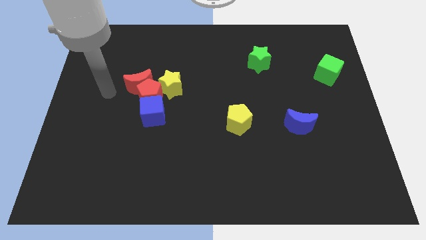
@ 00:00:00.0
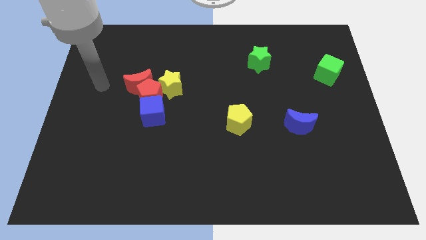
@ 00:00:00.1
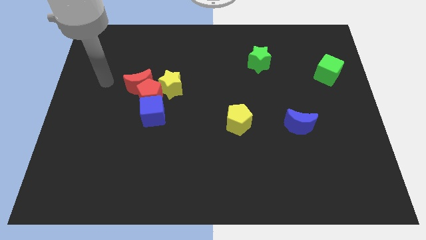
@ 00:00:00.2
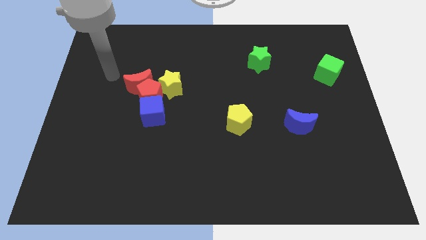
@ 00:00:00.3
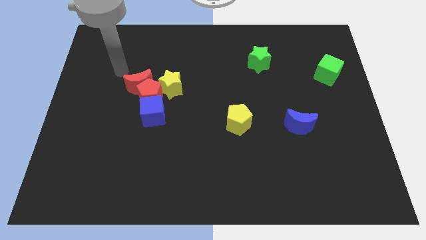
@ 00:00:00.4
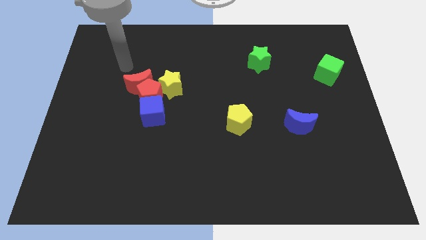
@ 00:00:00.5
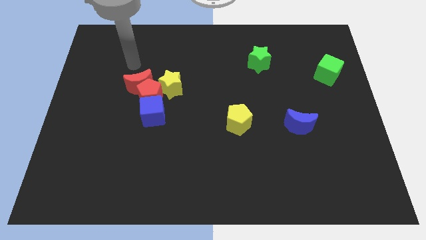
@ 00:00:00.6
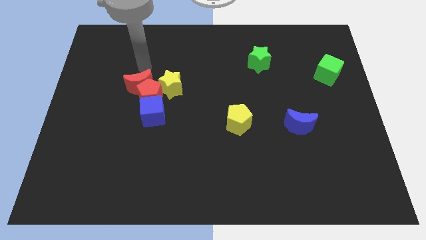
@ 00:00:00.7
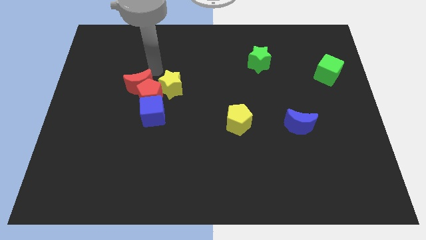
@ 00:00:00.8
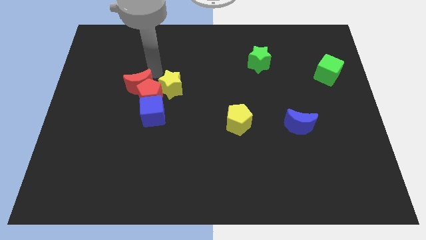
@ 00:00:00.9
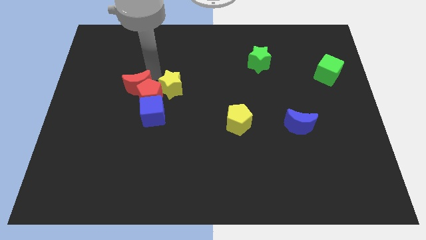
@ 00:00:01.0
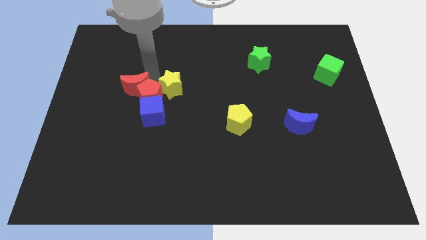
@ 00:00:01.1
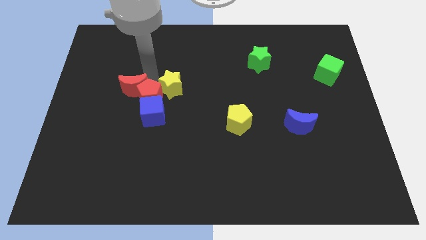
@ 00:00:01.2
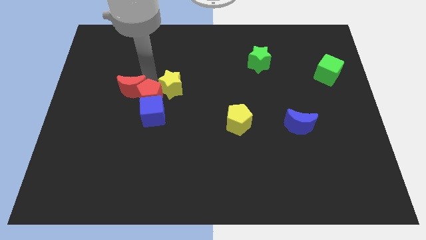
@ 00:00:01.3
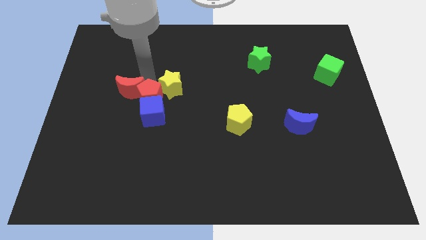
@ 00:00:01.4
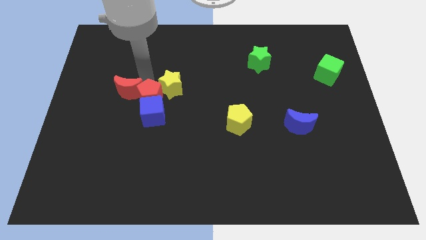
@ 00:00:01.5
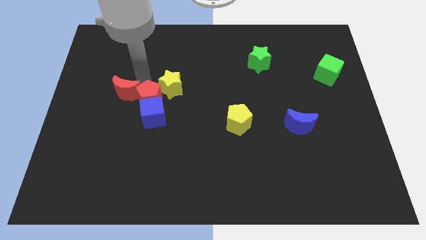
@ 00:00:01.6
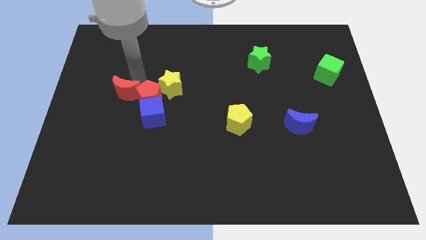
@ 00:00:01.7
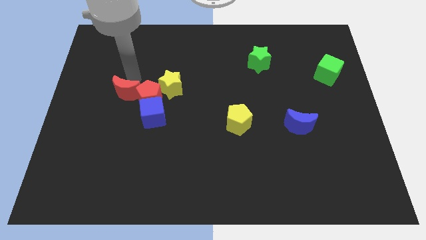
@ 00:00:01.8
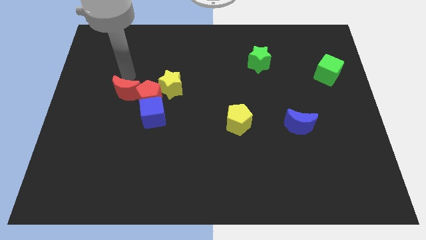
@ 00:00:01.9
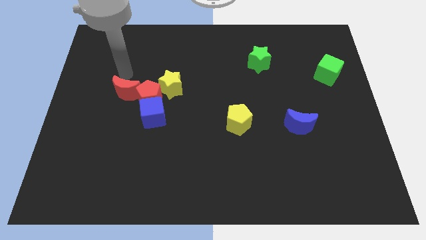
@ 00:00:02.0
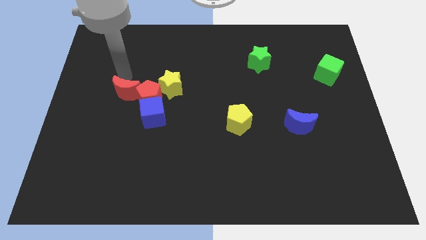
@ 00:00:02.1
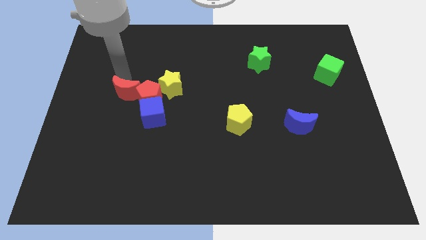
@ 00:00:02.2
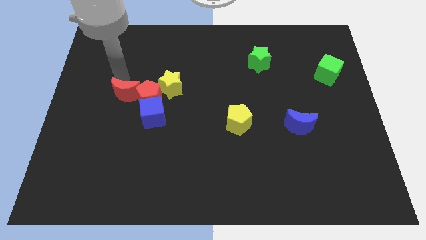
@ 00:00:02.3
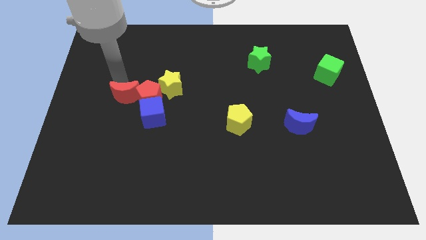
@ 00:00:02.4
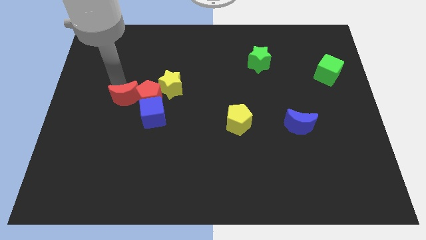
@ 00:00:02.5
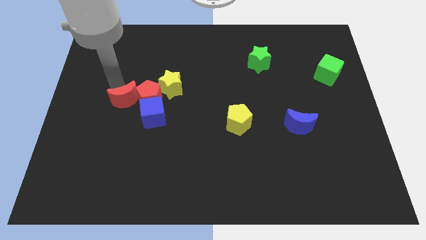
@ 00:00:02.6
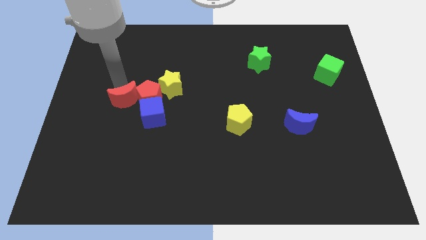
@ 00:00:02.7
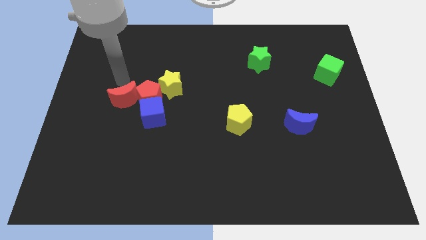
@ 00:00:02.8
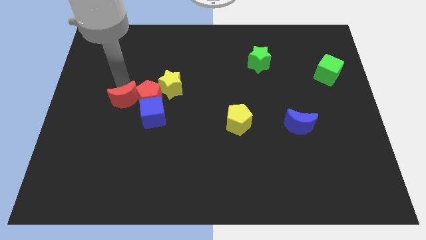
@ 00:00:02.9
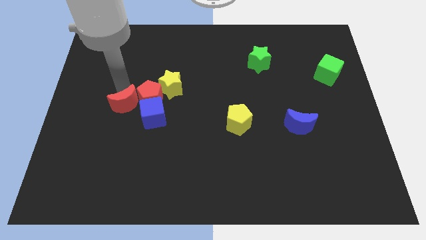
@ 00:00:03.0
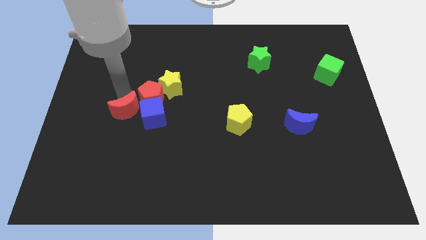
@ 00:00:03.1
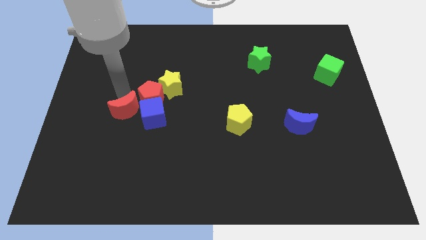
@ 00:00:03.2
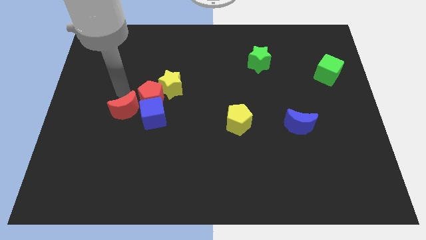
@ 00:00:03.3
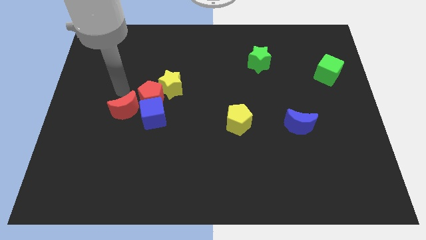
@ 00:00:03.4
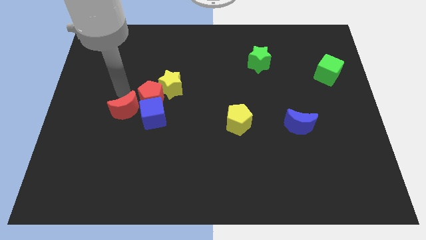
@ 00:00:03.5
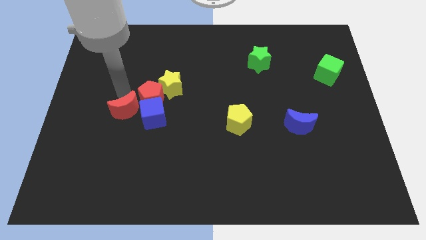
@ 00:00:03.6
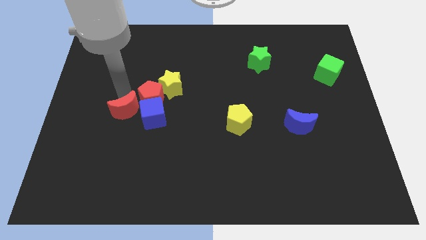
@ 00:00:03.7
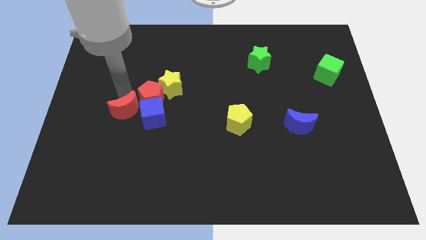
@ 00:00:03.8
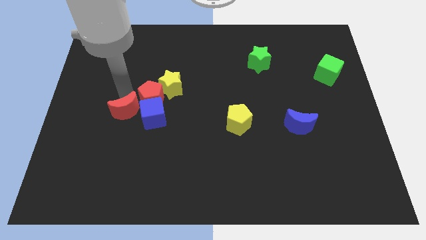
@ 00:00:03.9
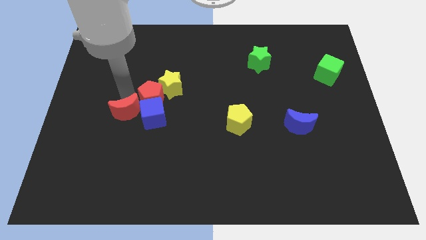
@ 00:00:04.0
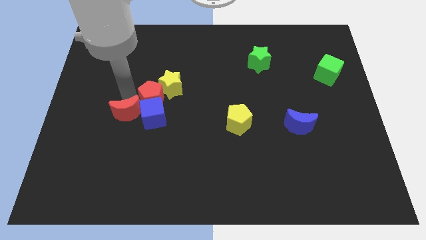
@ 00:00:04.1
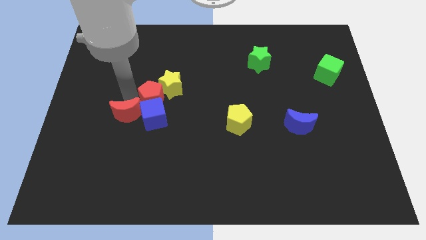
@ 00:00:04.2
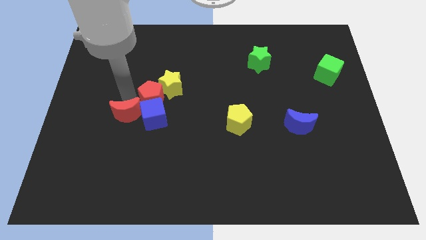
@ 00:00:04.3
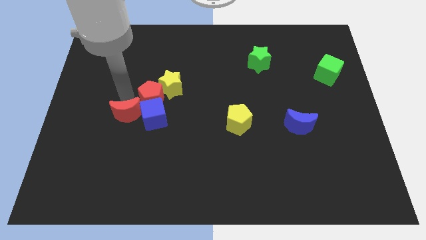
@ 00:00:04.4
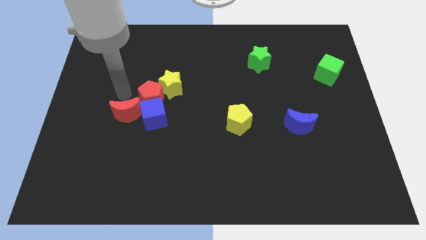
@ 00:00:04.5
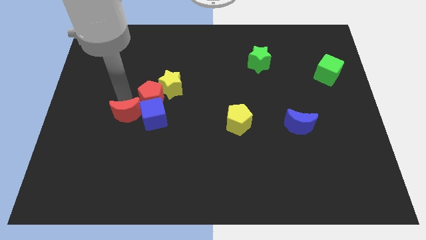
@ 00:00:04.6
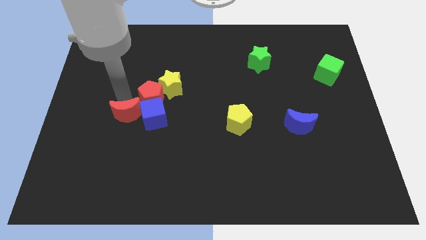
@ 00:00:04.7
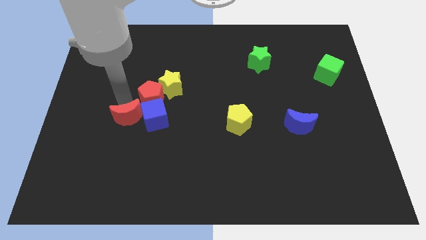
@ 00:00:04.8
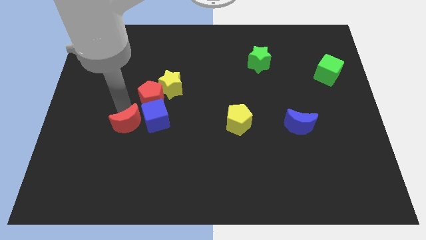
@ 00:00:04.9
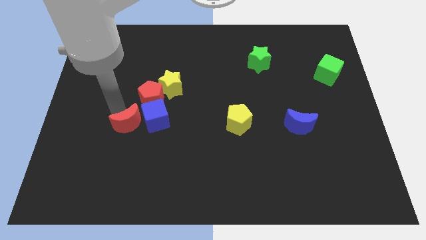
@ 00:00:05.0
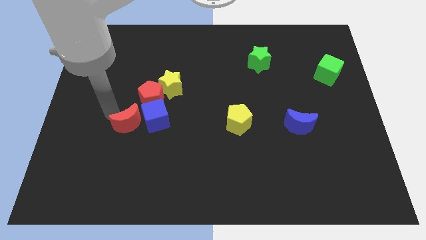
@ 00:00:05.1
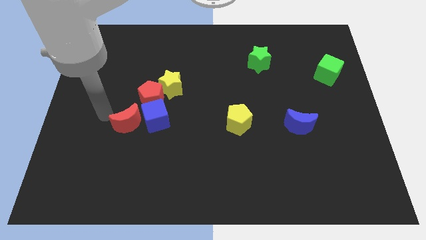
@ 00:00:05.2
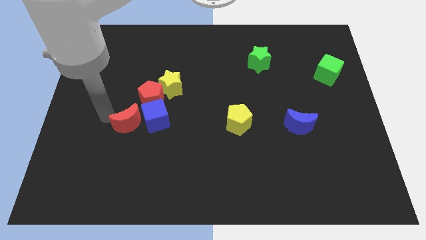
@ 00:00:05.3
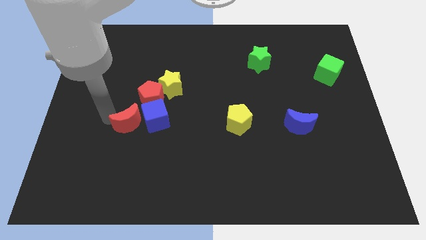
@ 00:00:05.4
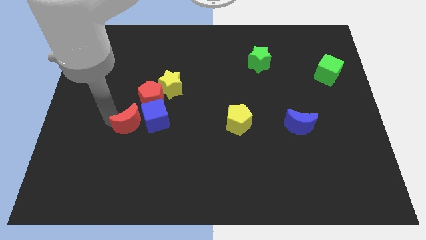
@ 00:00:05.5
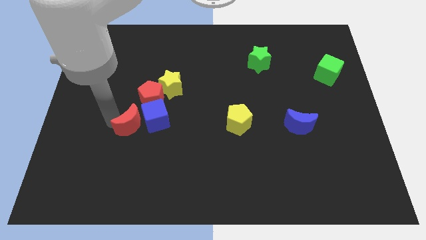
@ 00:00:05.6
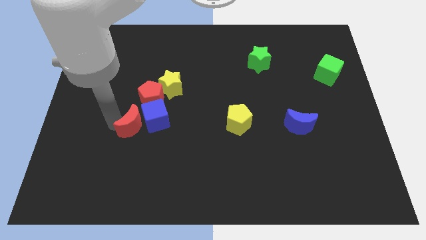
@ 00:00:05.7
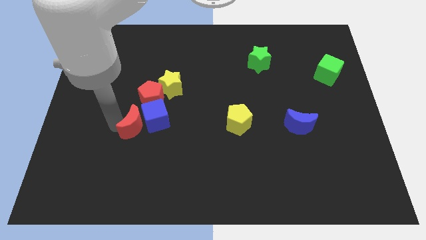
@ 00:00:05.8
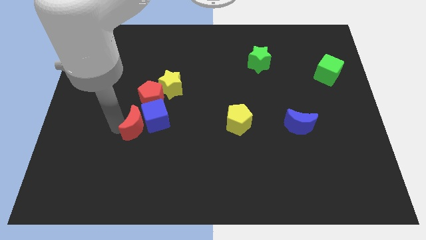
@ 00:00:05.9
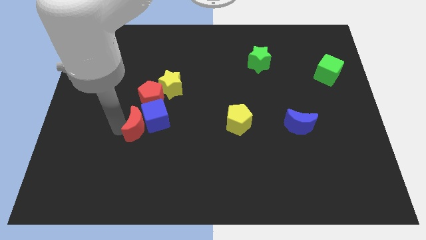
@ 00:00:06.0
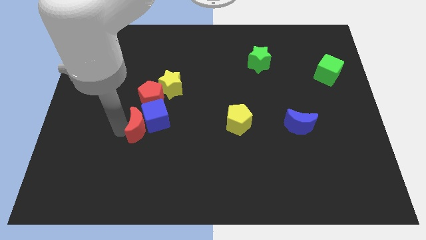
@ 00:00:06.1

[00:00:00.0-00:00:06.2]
slide the red moon downwards and right diagonally somewhat

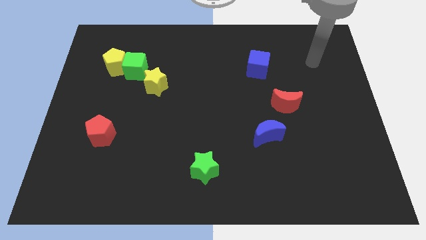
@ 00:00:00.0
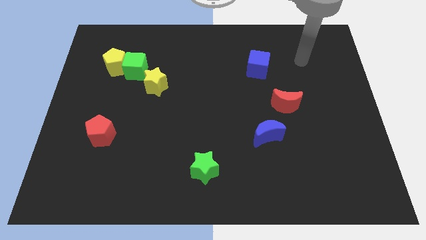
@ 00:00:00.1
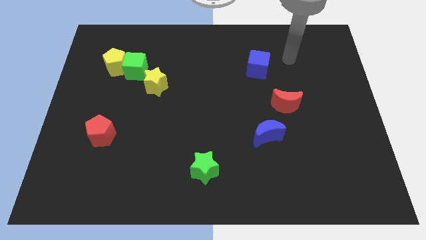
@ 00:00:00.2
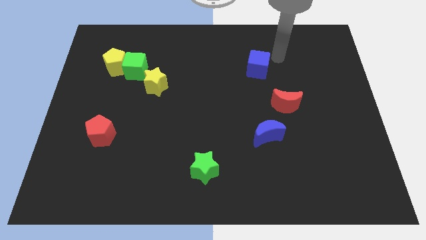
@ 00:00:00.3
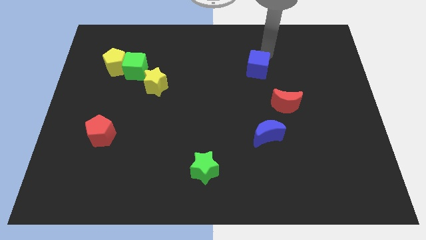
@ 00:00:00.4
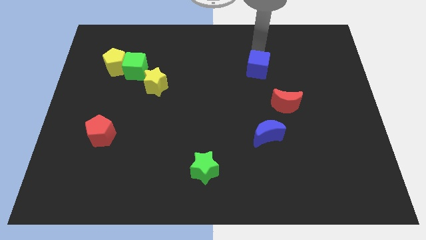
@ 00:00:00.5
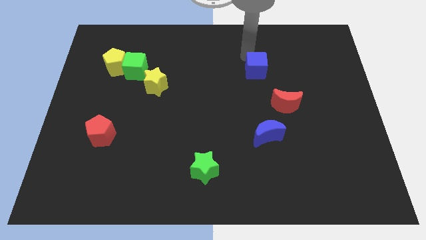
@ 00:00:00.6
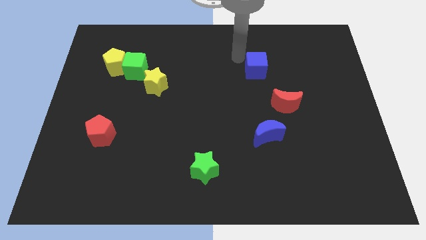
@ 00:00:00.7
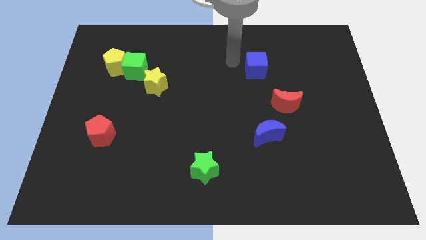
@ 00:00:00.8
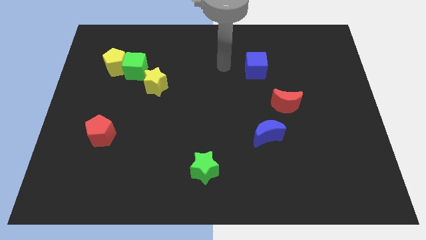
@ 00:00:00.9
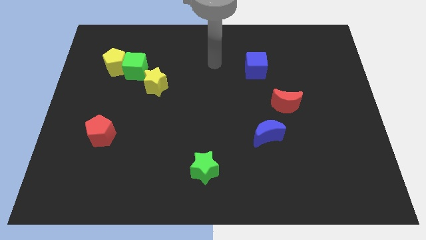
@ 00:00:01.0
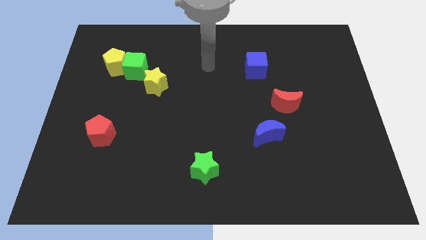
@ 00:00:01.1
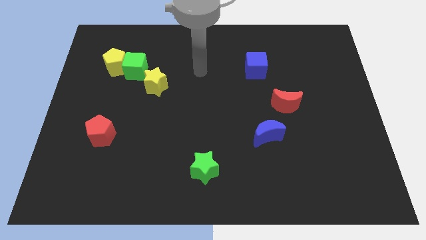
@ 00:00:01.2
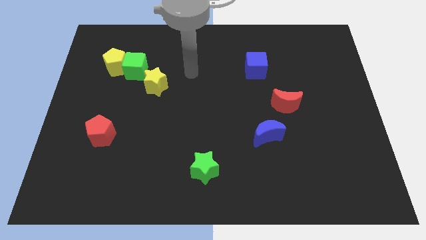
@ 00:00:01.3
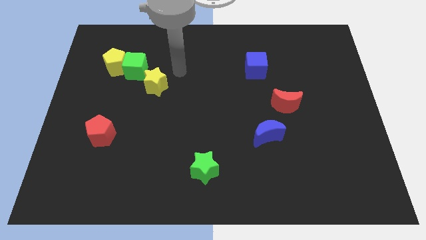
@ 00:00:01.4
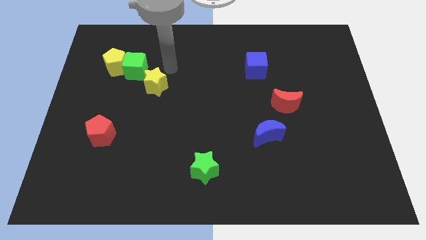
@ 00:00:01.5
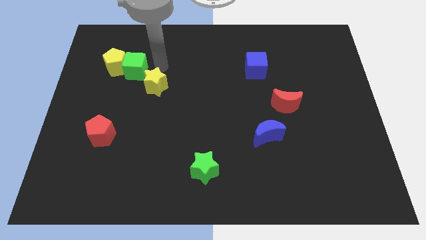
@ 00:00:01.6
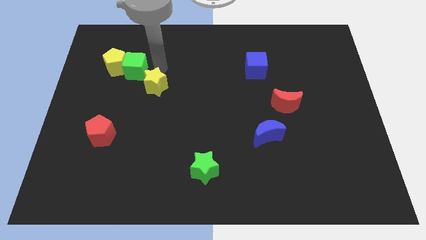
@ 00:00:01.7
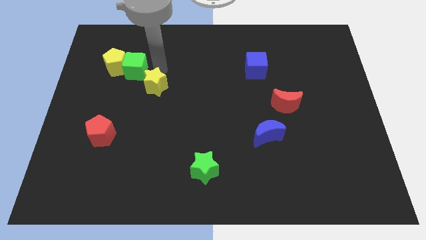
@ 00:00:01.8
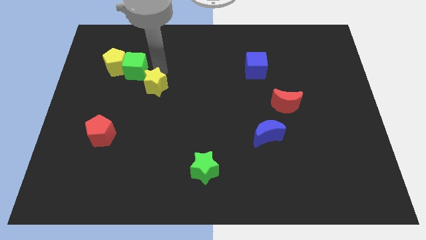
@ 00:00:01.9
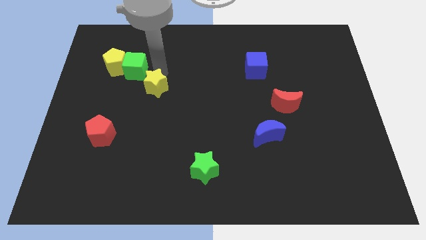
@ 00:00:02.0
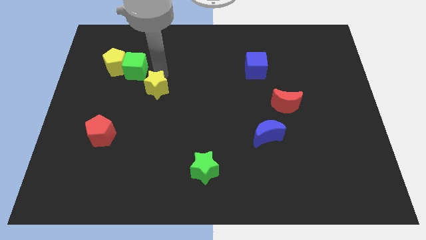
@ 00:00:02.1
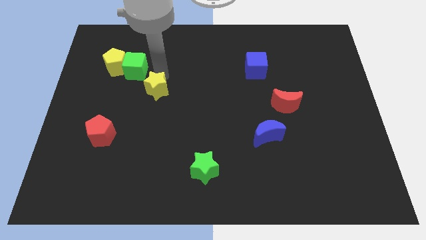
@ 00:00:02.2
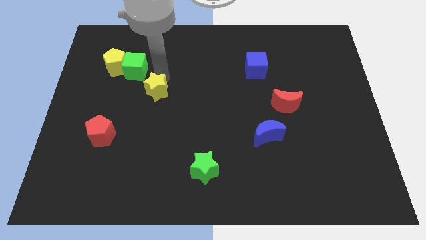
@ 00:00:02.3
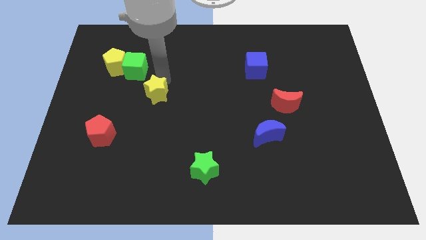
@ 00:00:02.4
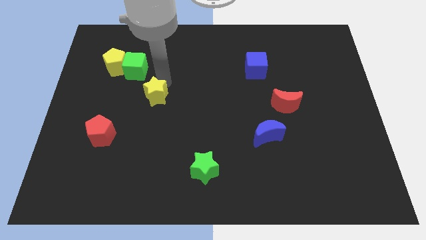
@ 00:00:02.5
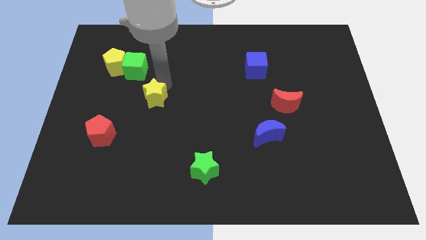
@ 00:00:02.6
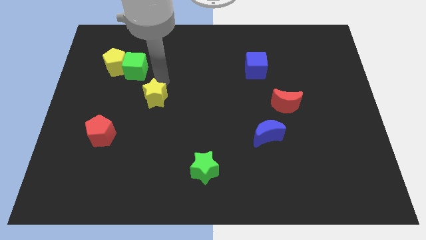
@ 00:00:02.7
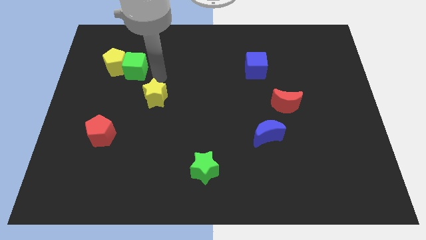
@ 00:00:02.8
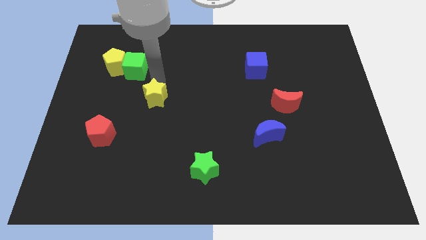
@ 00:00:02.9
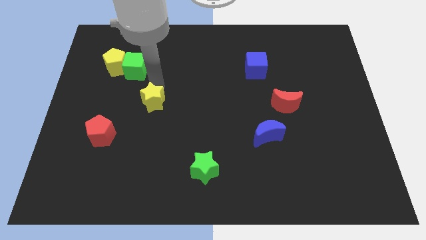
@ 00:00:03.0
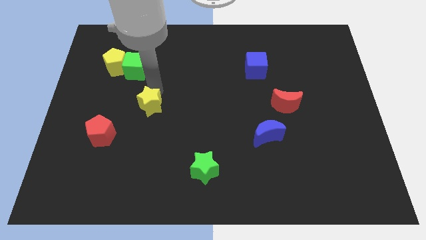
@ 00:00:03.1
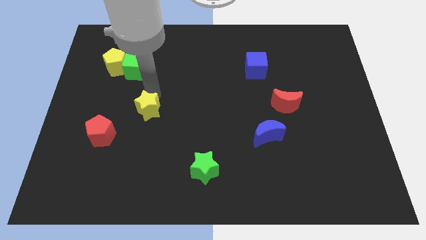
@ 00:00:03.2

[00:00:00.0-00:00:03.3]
move the yellow star somewhat down
